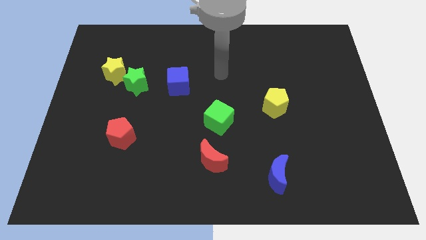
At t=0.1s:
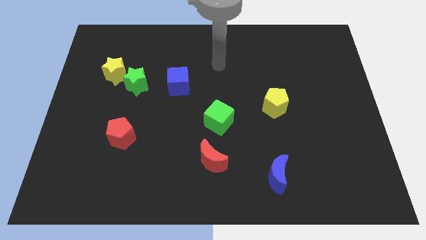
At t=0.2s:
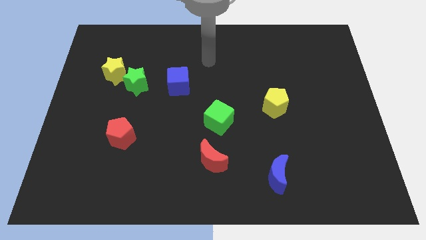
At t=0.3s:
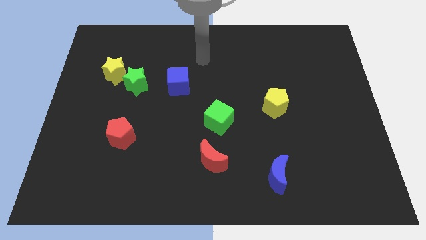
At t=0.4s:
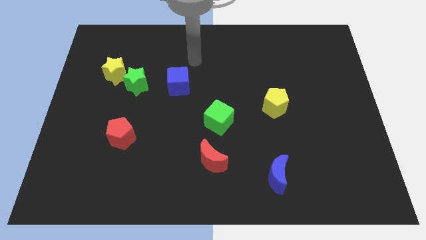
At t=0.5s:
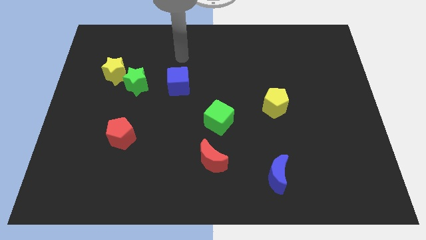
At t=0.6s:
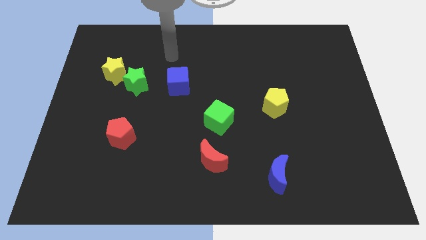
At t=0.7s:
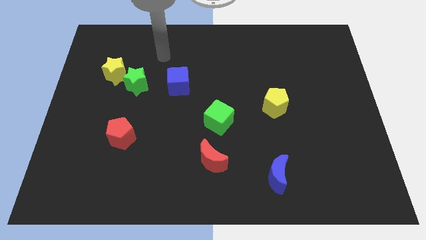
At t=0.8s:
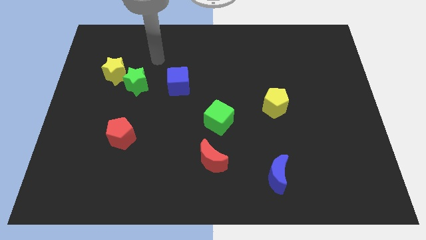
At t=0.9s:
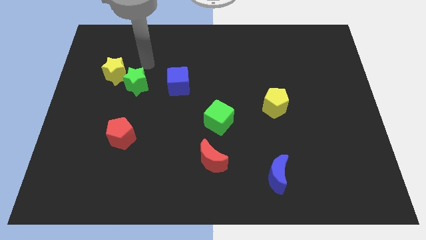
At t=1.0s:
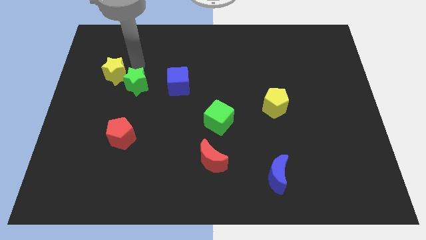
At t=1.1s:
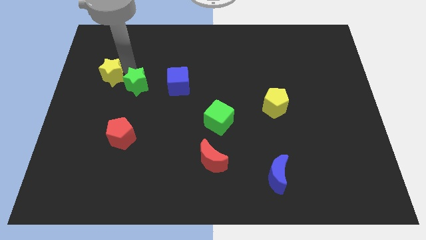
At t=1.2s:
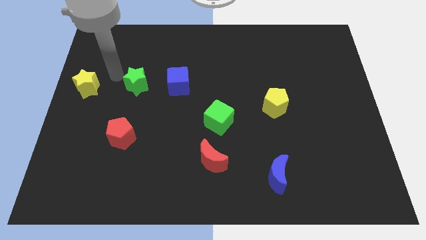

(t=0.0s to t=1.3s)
move the green star away from the yellow star

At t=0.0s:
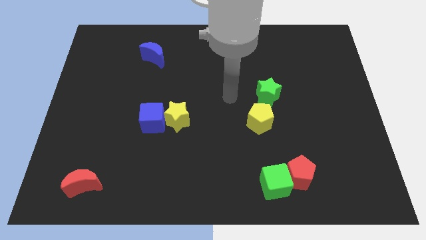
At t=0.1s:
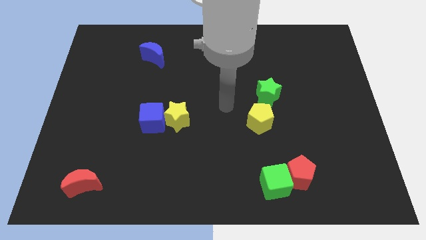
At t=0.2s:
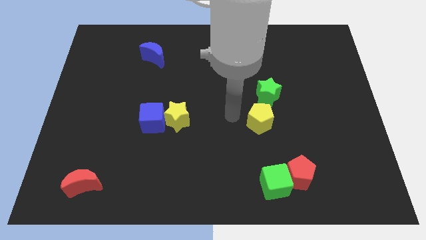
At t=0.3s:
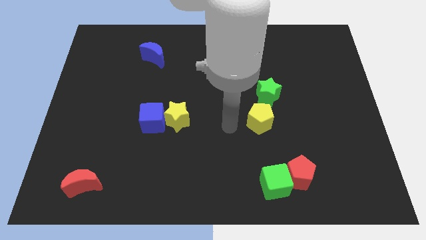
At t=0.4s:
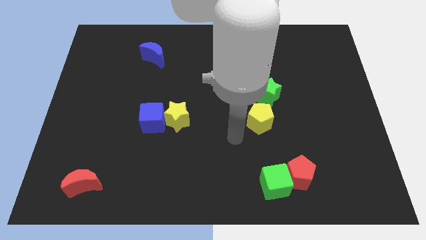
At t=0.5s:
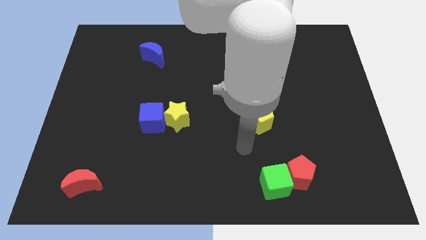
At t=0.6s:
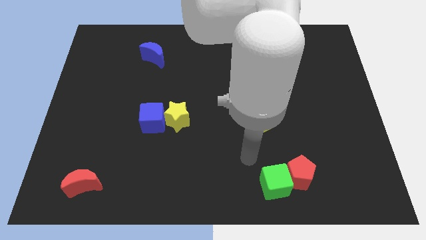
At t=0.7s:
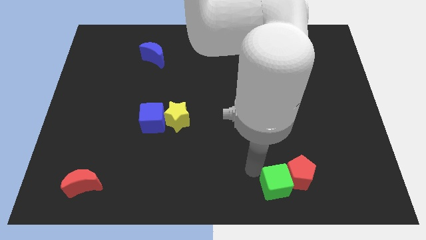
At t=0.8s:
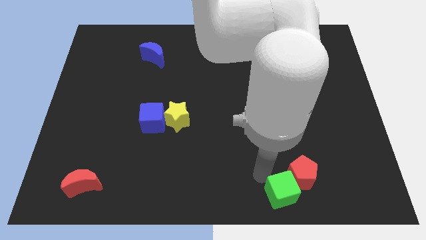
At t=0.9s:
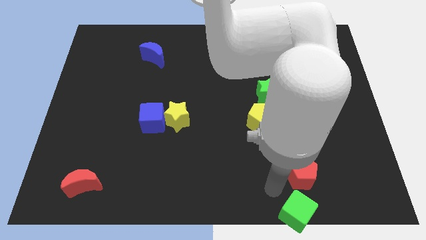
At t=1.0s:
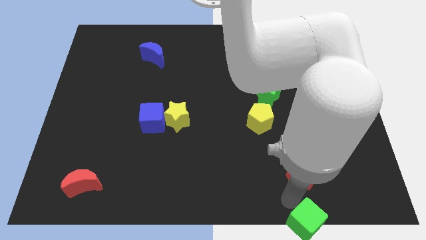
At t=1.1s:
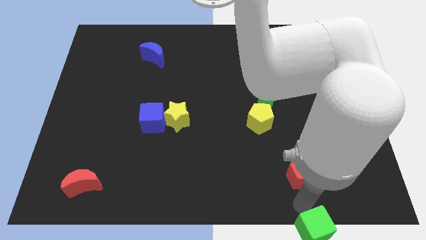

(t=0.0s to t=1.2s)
pull the red pentagon apart from the green cube

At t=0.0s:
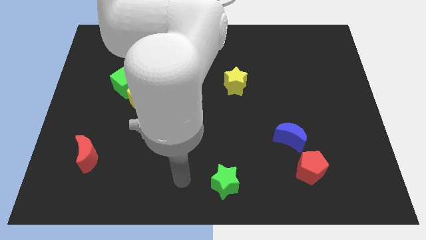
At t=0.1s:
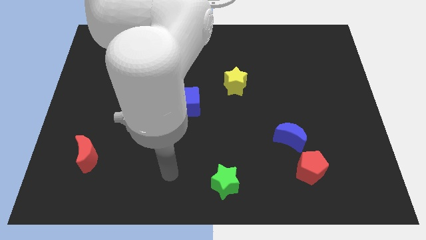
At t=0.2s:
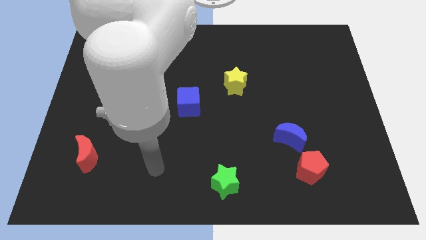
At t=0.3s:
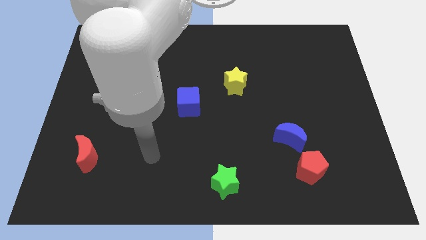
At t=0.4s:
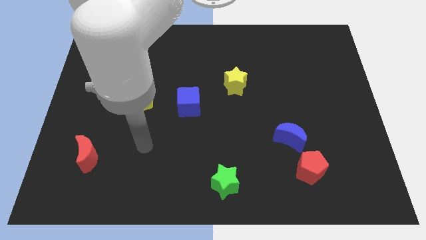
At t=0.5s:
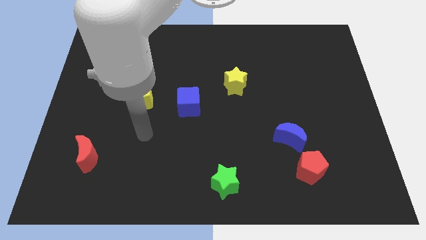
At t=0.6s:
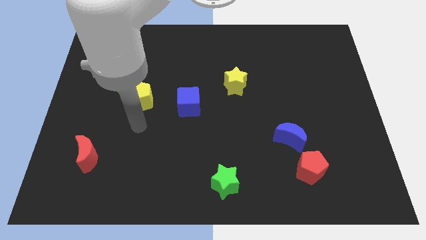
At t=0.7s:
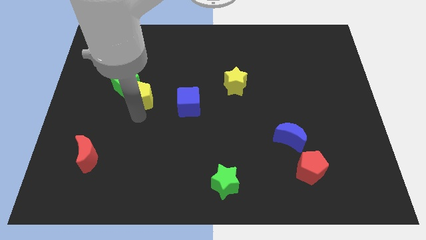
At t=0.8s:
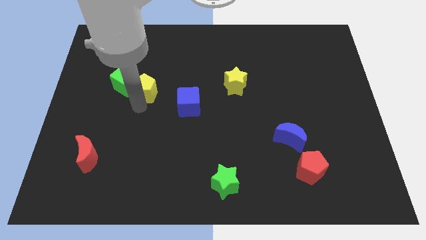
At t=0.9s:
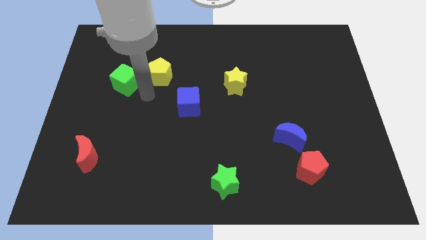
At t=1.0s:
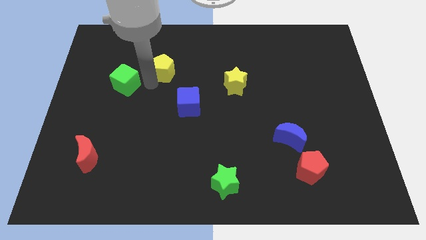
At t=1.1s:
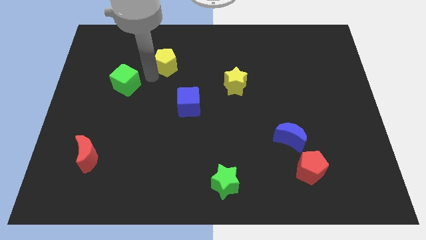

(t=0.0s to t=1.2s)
separate the green cube from the yellow pentagon

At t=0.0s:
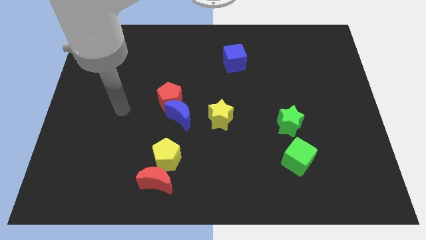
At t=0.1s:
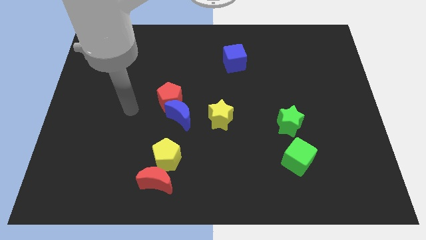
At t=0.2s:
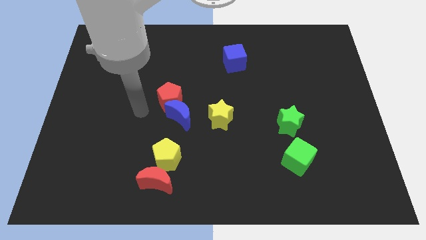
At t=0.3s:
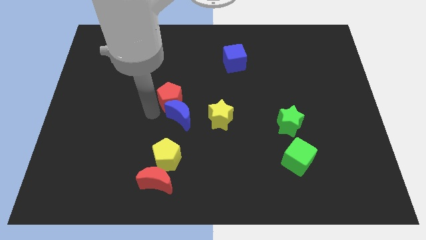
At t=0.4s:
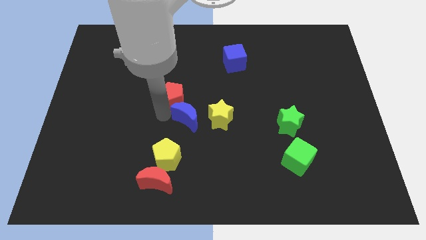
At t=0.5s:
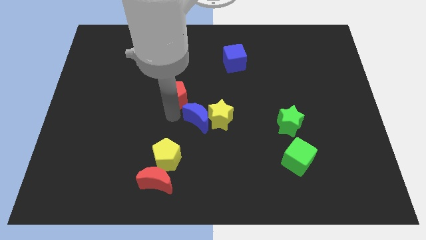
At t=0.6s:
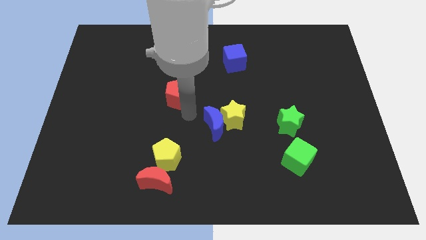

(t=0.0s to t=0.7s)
pull the red pentagon apart from the blue moon

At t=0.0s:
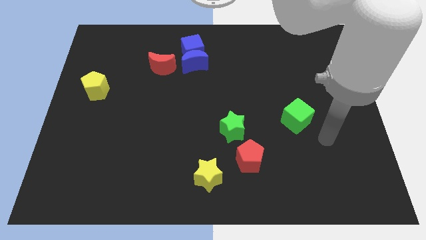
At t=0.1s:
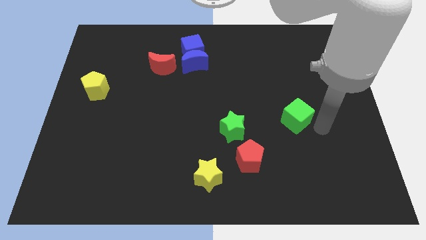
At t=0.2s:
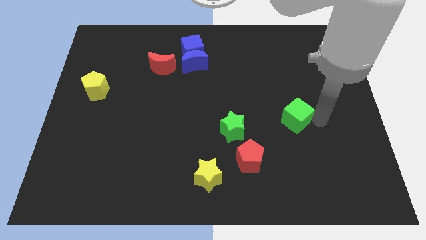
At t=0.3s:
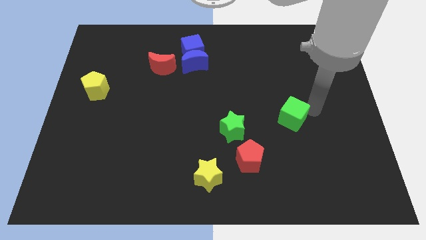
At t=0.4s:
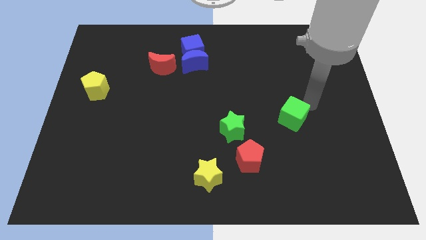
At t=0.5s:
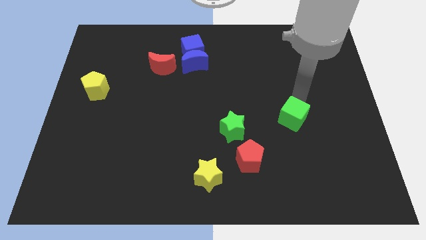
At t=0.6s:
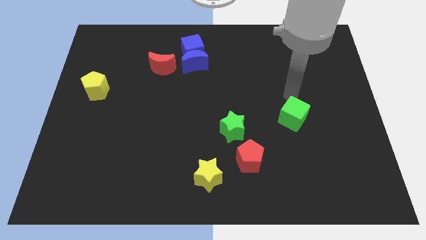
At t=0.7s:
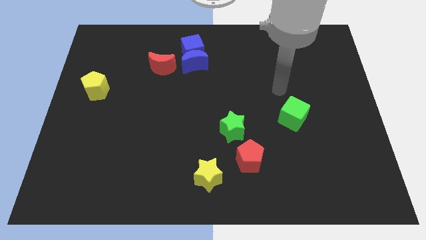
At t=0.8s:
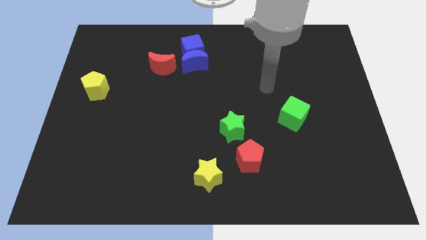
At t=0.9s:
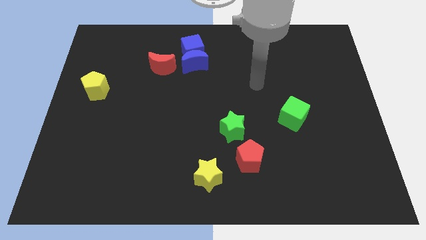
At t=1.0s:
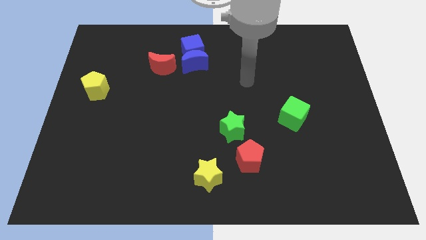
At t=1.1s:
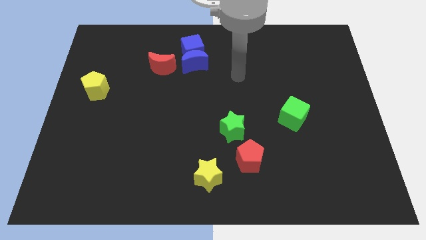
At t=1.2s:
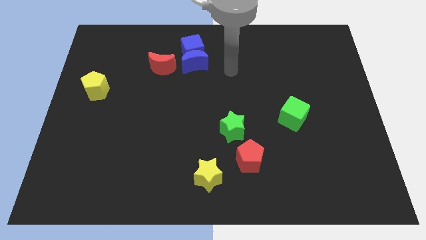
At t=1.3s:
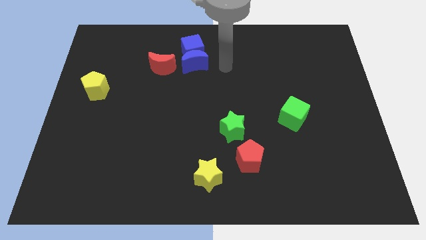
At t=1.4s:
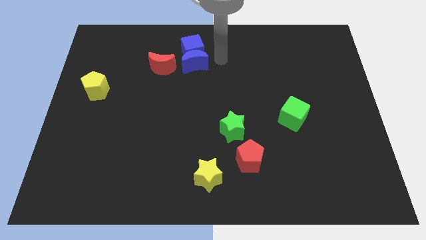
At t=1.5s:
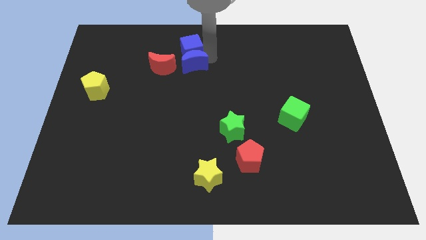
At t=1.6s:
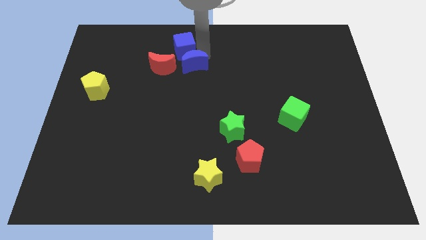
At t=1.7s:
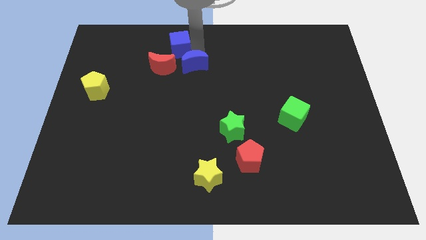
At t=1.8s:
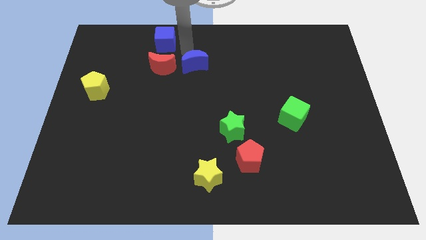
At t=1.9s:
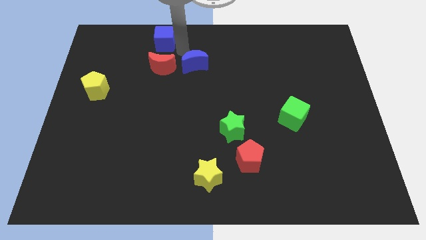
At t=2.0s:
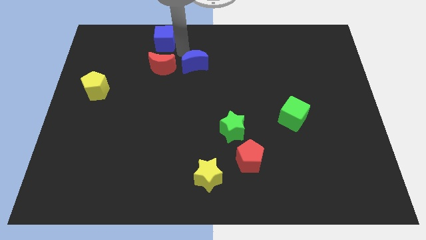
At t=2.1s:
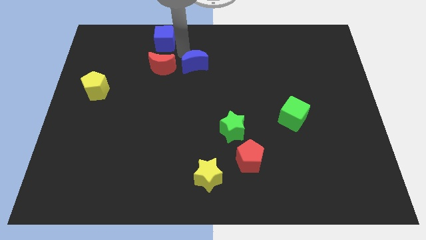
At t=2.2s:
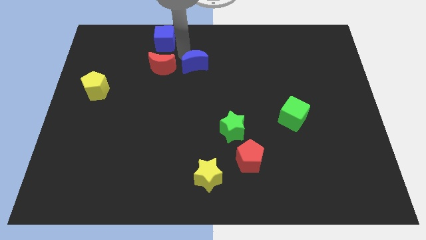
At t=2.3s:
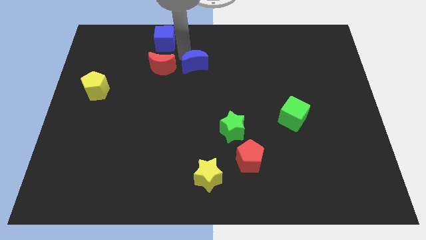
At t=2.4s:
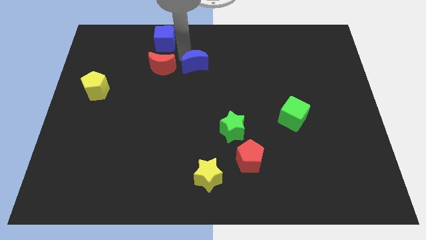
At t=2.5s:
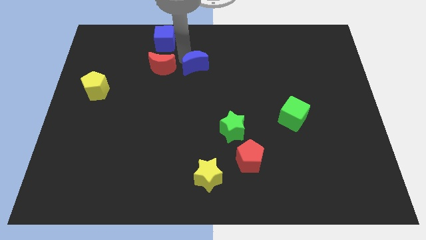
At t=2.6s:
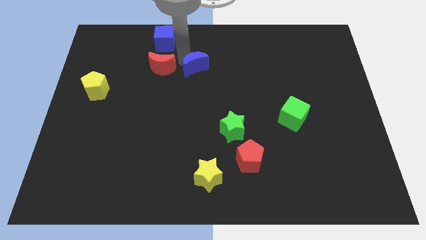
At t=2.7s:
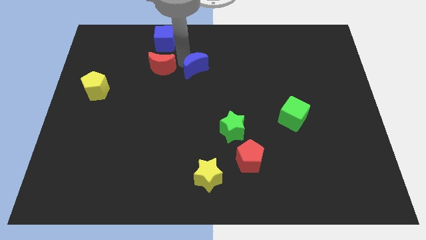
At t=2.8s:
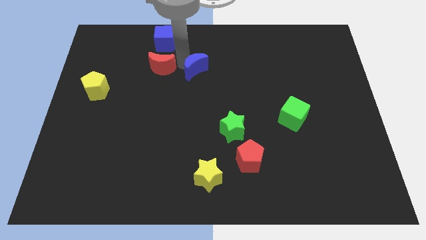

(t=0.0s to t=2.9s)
separate the blue moon from the blue cube and red moon

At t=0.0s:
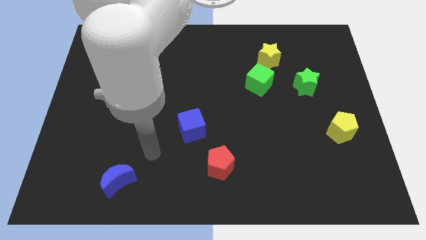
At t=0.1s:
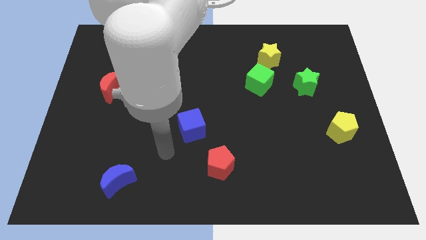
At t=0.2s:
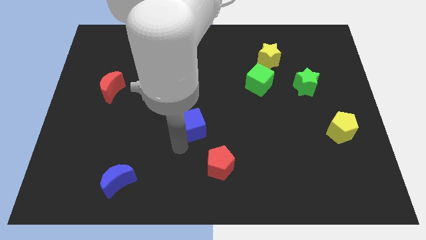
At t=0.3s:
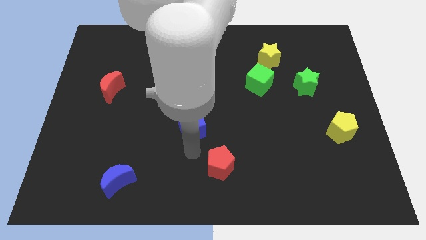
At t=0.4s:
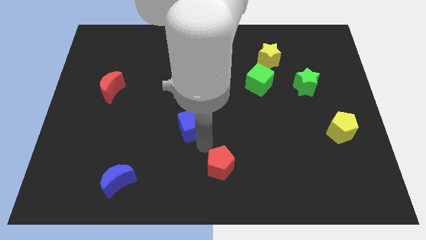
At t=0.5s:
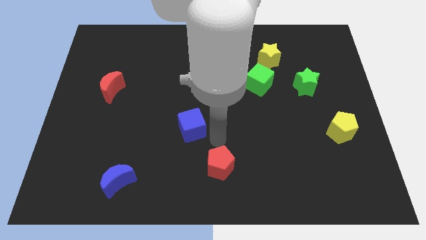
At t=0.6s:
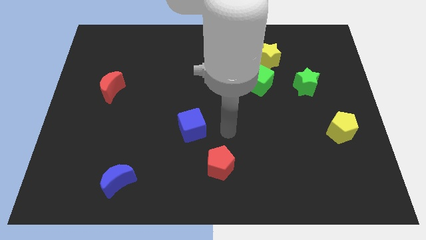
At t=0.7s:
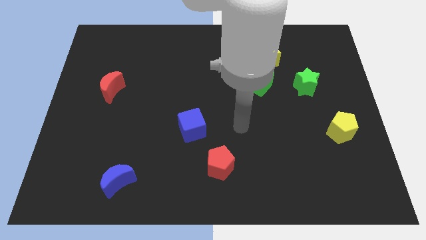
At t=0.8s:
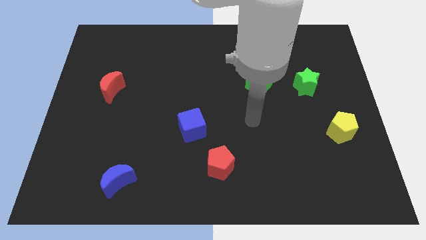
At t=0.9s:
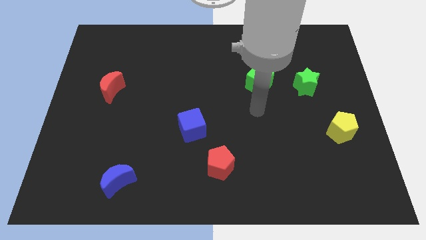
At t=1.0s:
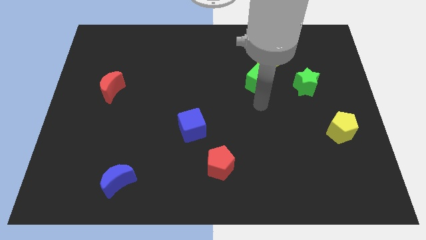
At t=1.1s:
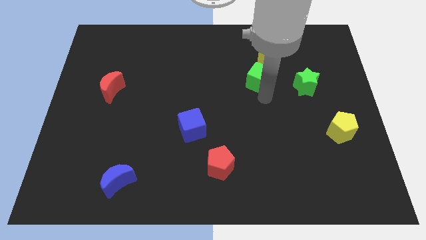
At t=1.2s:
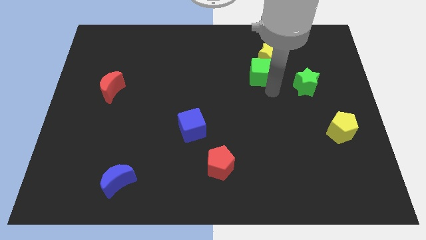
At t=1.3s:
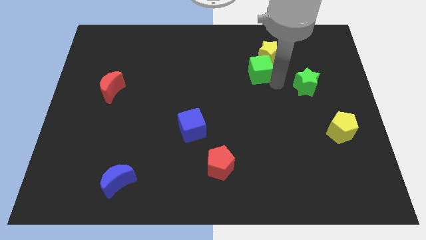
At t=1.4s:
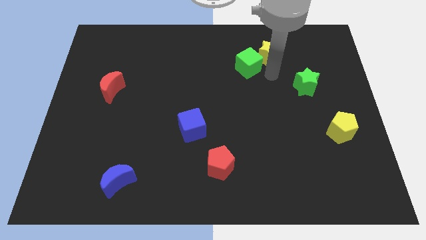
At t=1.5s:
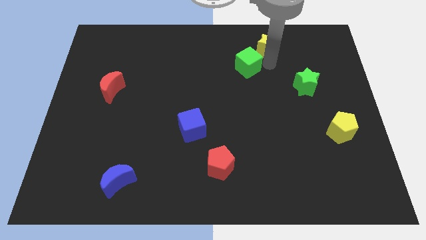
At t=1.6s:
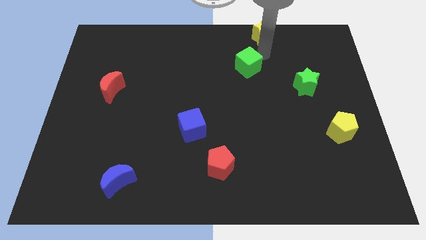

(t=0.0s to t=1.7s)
move the green cube away from the yellow star

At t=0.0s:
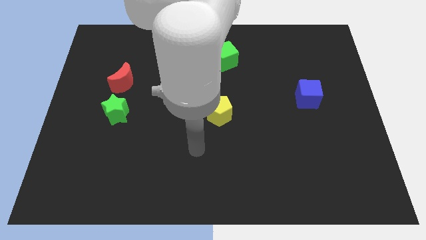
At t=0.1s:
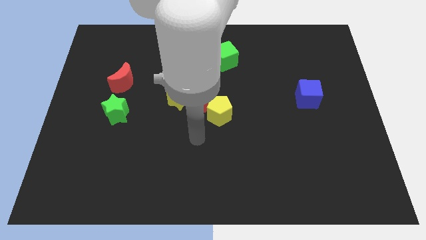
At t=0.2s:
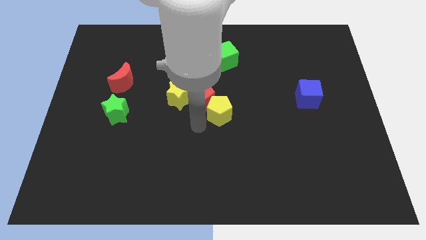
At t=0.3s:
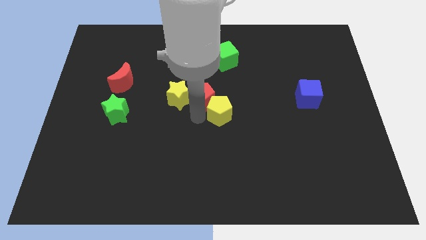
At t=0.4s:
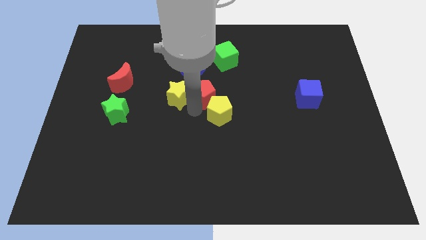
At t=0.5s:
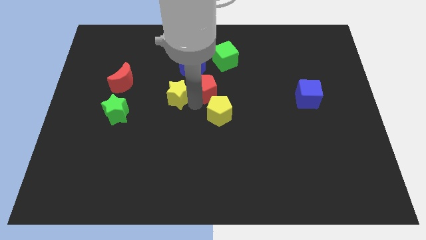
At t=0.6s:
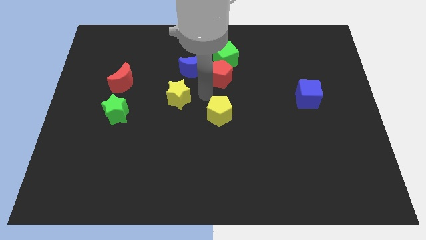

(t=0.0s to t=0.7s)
move the yellow pentagon away from the red pentagon
